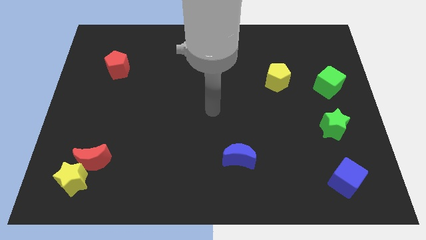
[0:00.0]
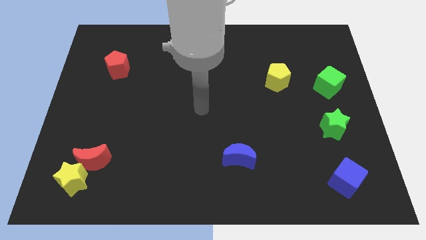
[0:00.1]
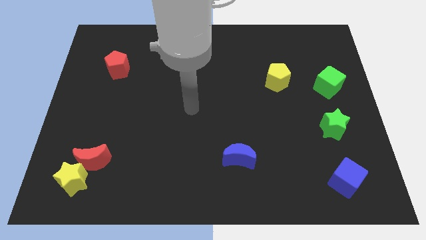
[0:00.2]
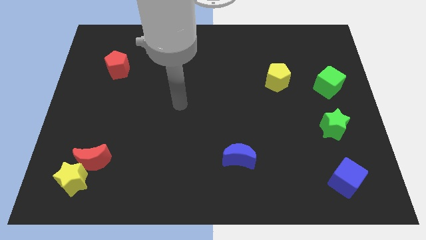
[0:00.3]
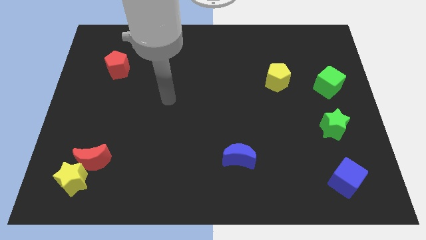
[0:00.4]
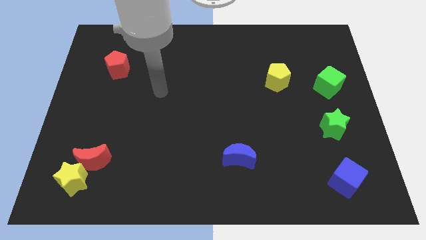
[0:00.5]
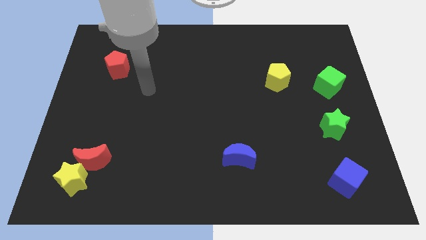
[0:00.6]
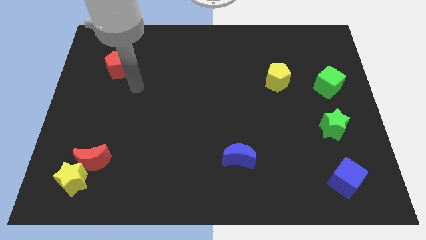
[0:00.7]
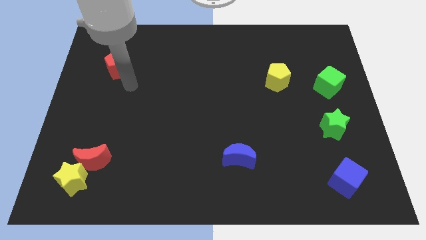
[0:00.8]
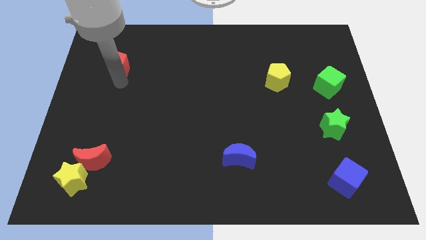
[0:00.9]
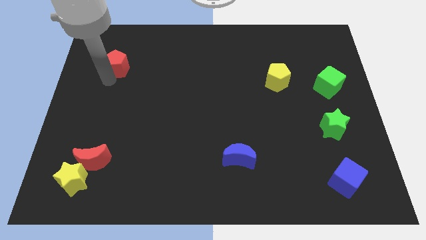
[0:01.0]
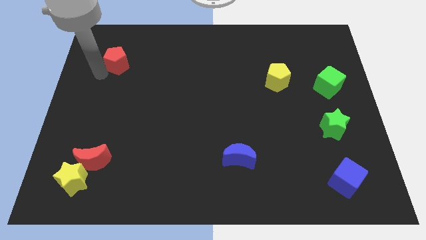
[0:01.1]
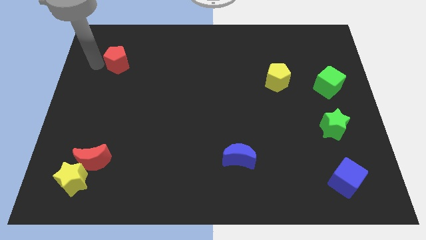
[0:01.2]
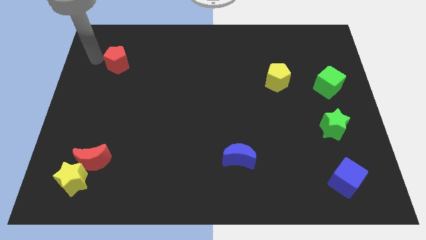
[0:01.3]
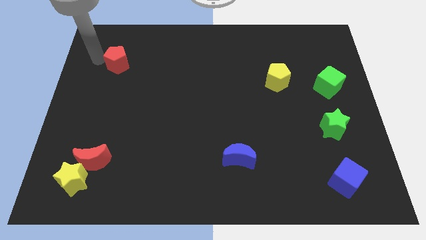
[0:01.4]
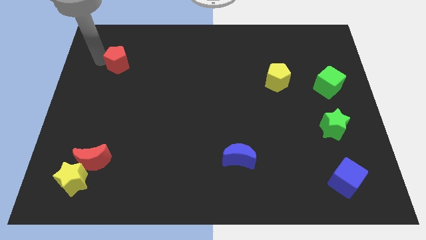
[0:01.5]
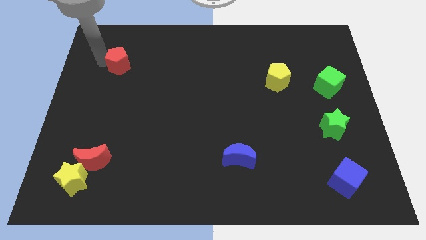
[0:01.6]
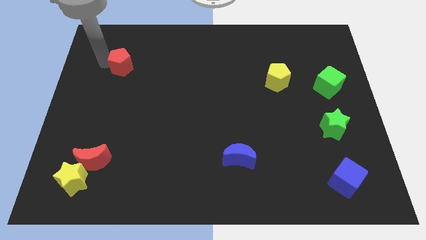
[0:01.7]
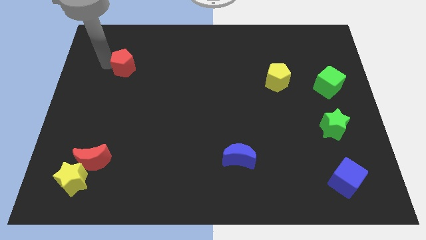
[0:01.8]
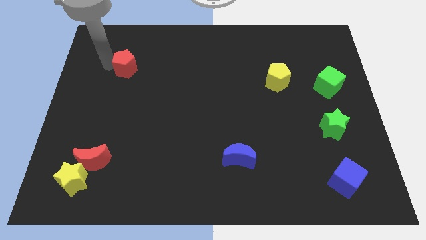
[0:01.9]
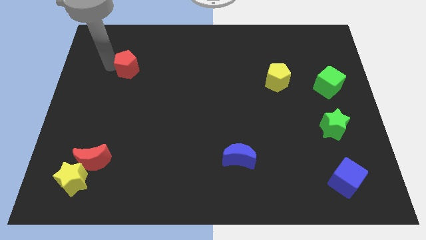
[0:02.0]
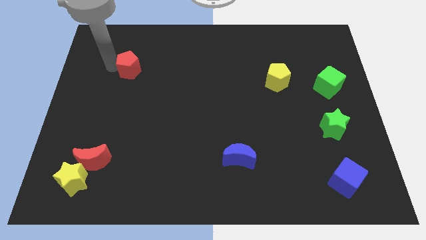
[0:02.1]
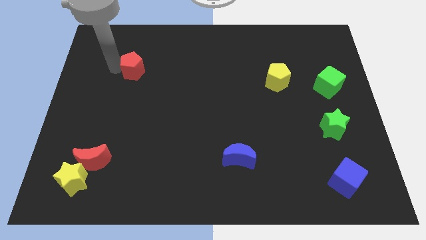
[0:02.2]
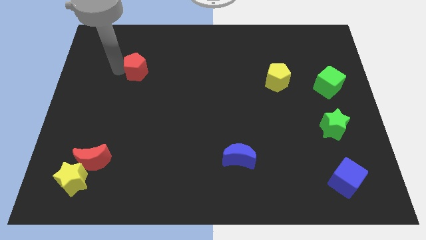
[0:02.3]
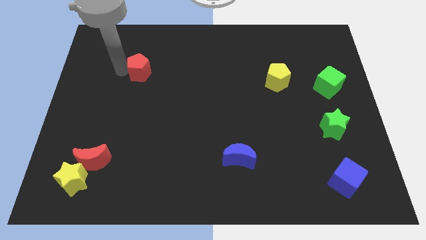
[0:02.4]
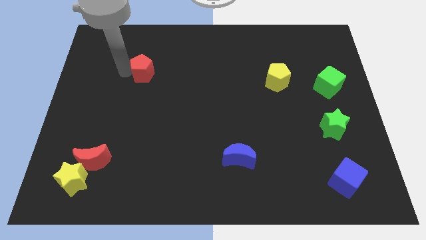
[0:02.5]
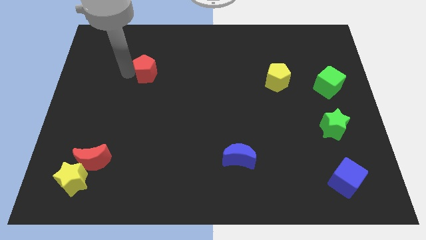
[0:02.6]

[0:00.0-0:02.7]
slide the red pentagon somewhat right

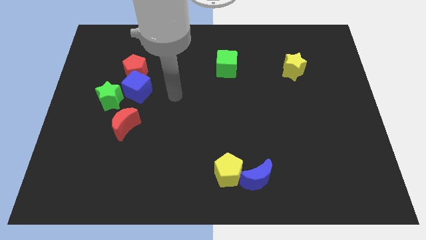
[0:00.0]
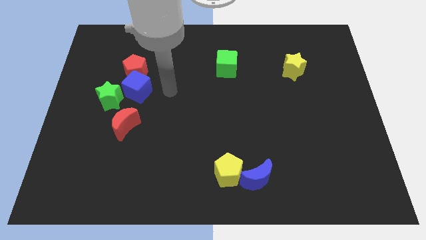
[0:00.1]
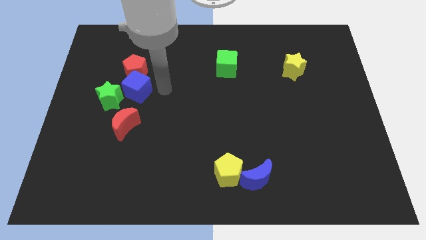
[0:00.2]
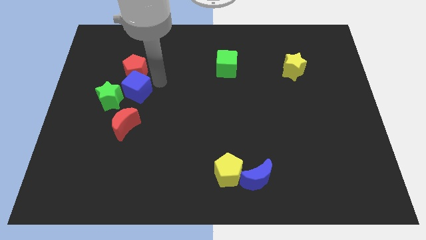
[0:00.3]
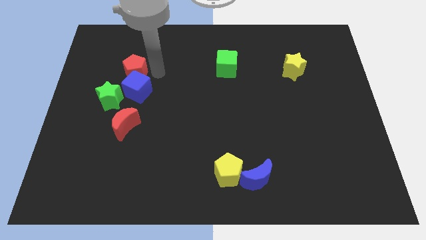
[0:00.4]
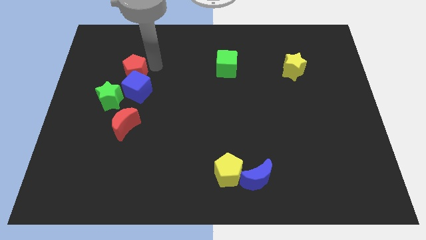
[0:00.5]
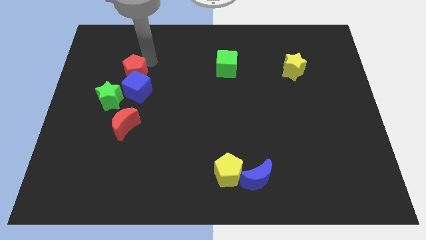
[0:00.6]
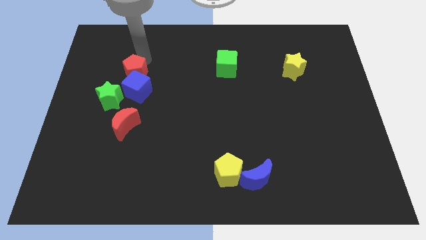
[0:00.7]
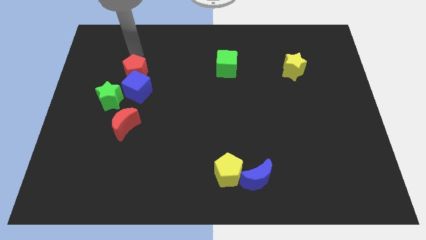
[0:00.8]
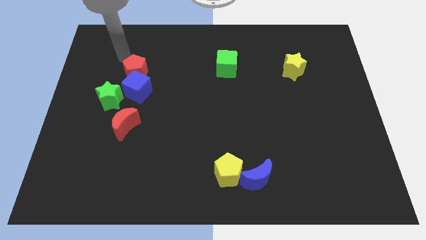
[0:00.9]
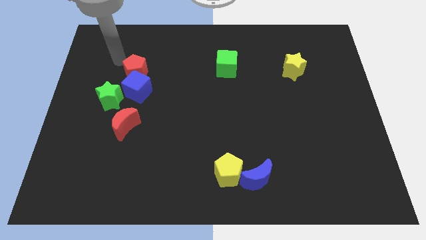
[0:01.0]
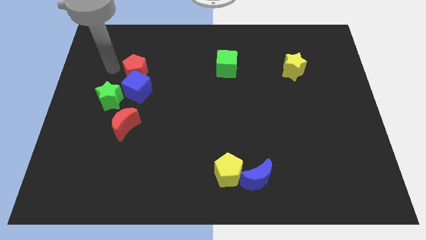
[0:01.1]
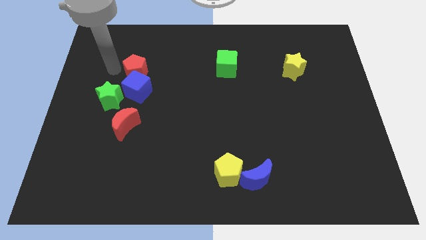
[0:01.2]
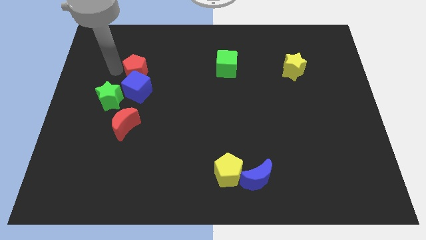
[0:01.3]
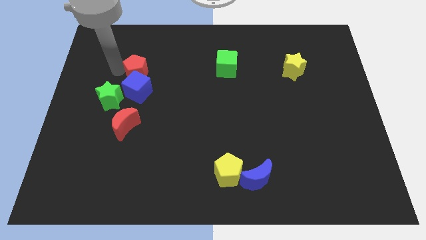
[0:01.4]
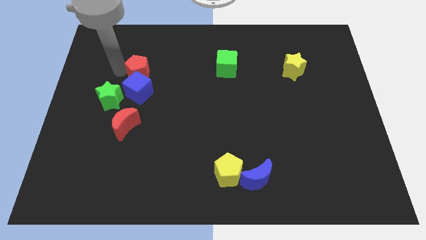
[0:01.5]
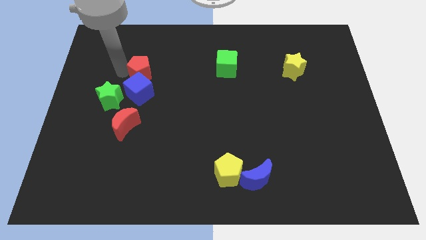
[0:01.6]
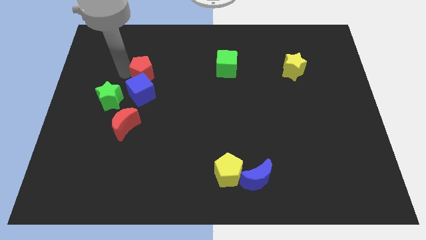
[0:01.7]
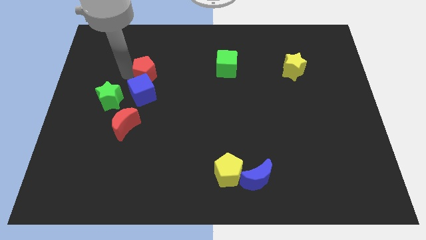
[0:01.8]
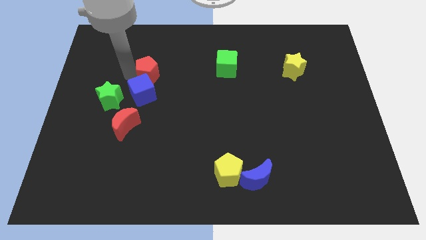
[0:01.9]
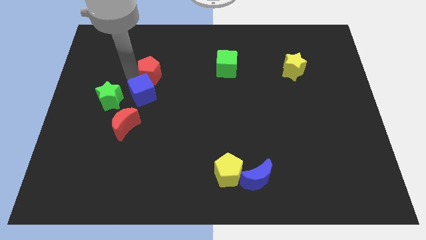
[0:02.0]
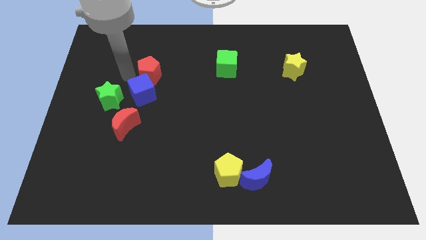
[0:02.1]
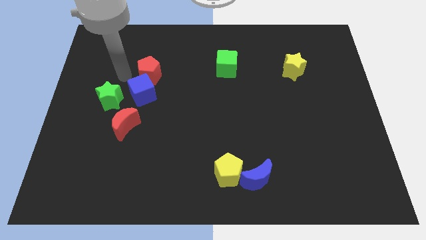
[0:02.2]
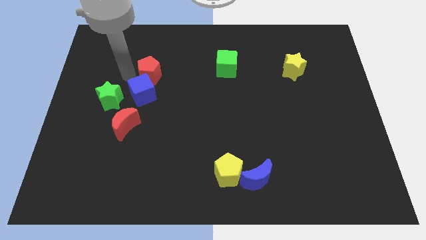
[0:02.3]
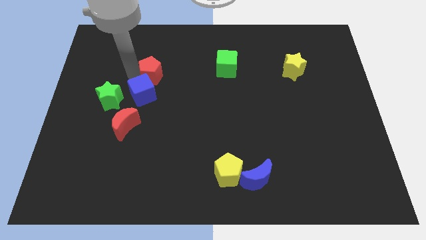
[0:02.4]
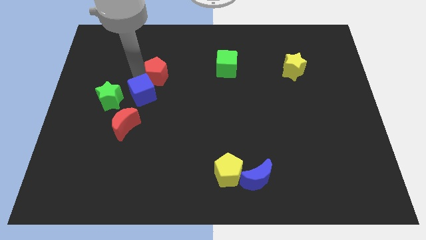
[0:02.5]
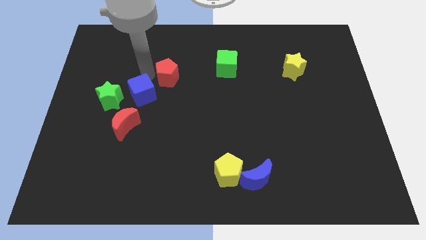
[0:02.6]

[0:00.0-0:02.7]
move the red pentagon a bit right

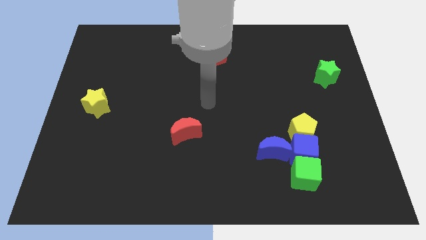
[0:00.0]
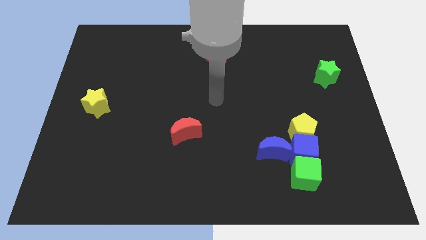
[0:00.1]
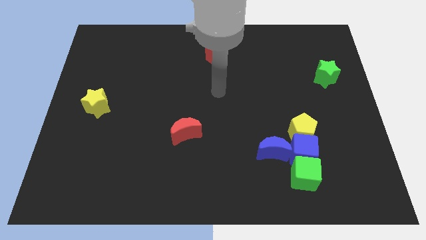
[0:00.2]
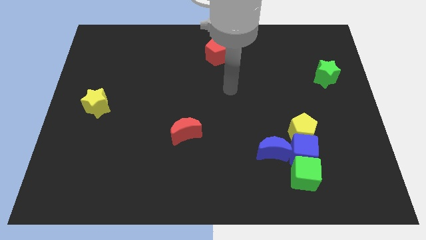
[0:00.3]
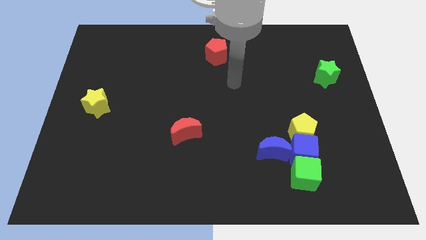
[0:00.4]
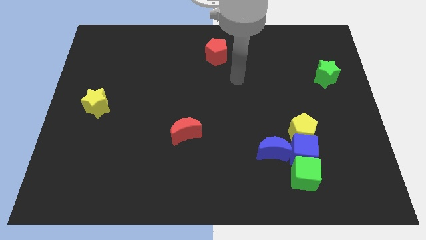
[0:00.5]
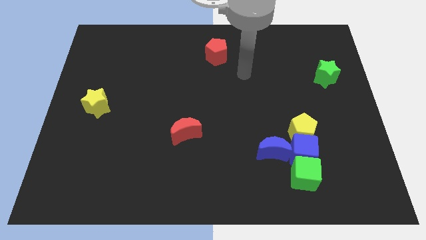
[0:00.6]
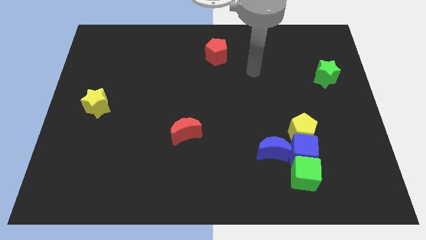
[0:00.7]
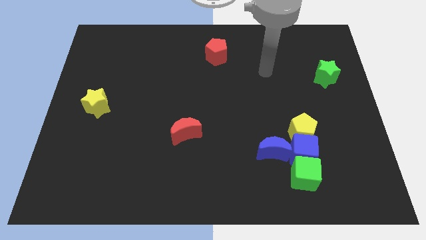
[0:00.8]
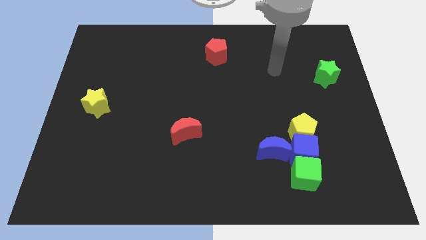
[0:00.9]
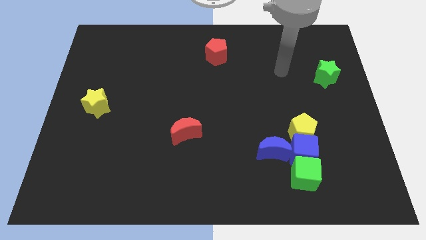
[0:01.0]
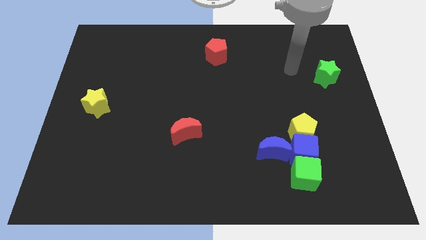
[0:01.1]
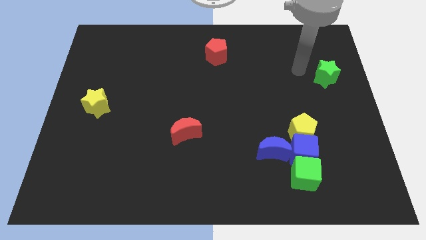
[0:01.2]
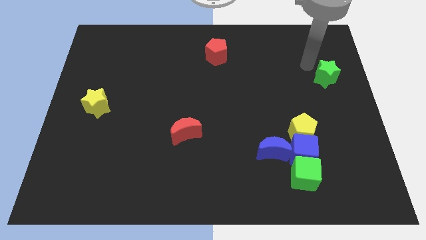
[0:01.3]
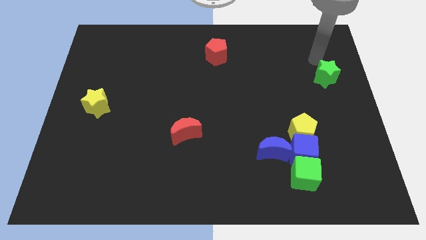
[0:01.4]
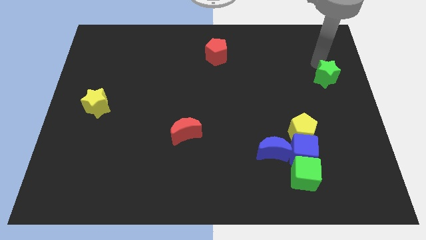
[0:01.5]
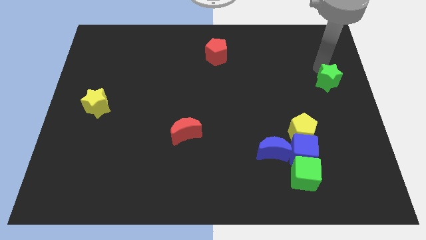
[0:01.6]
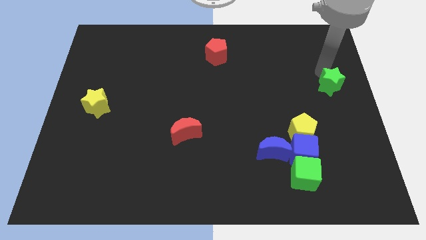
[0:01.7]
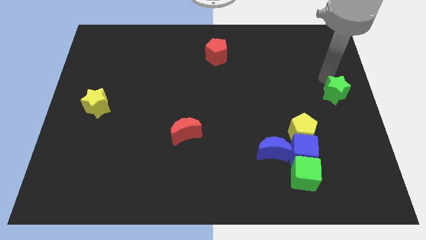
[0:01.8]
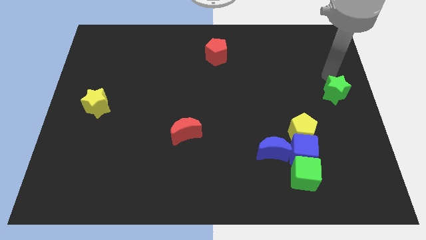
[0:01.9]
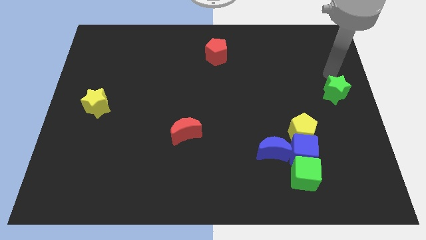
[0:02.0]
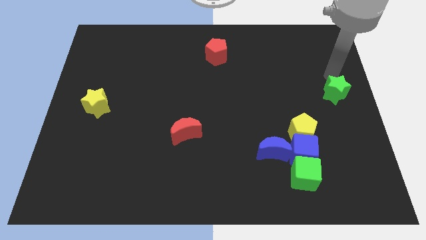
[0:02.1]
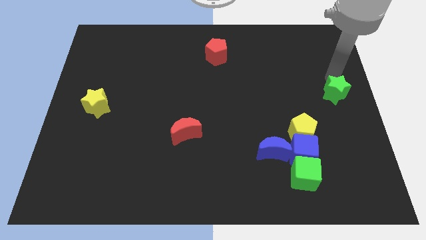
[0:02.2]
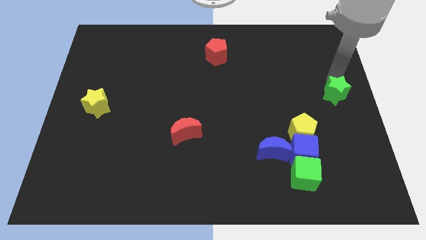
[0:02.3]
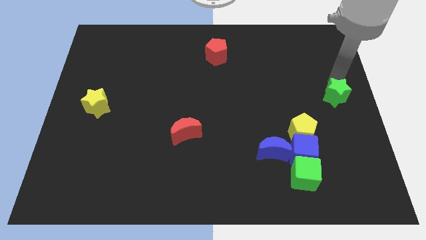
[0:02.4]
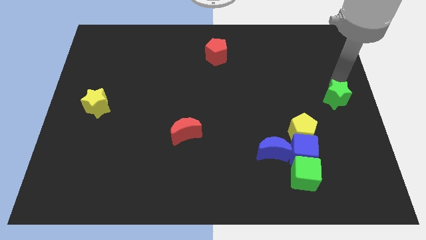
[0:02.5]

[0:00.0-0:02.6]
slide the green star a bit down
